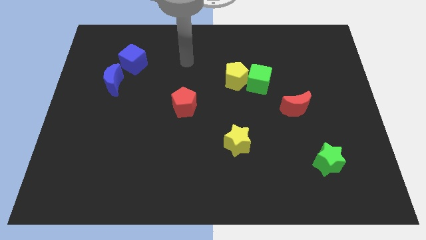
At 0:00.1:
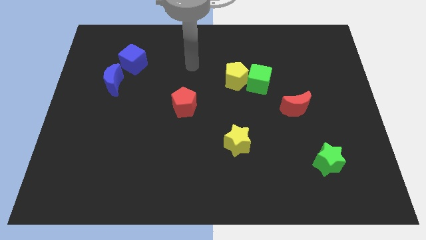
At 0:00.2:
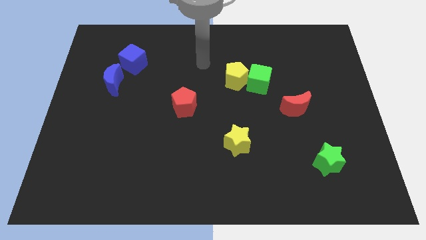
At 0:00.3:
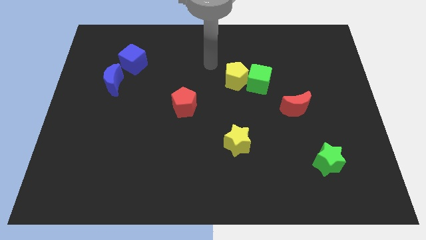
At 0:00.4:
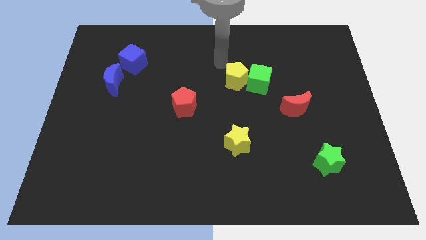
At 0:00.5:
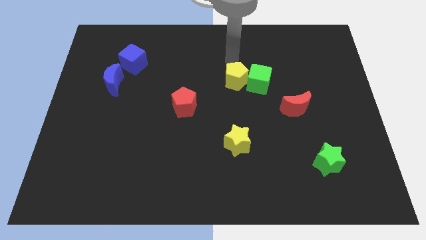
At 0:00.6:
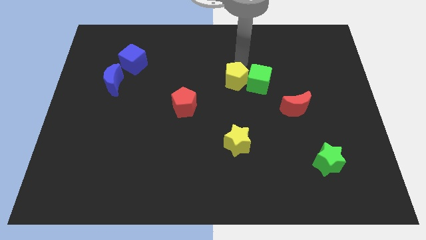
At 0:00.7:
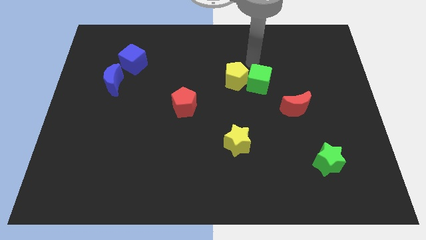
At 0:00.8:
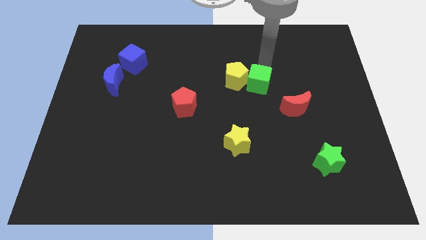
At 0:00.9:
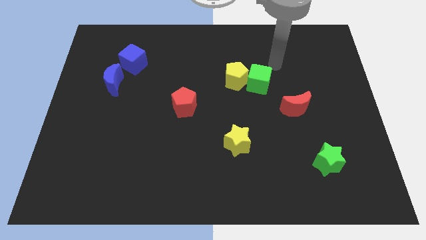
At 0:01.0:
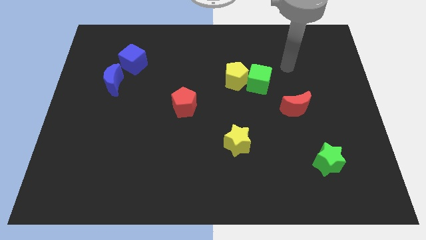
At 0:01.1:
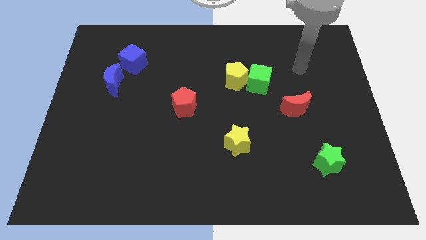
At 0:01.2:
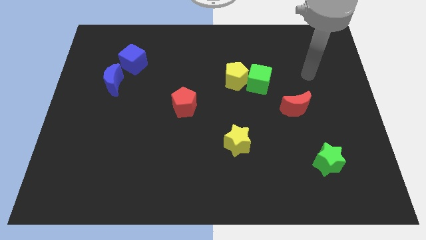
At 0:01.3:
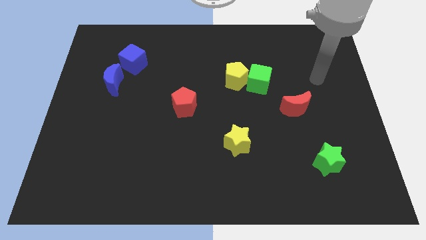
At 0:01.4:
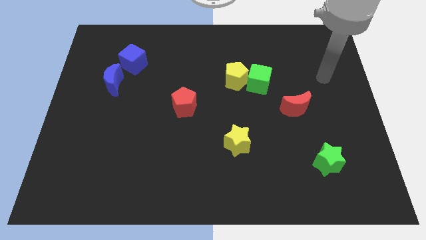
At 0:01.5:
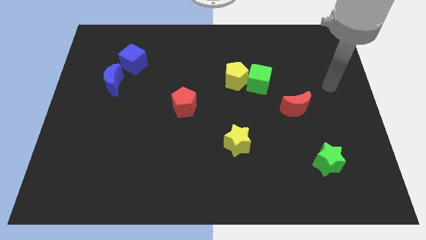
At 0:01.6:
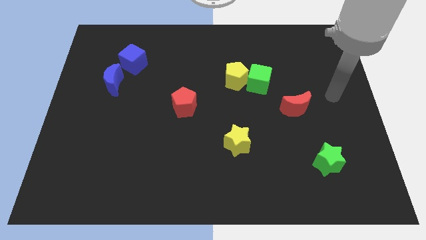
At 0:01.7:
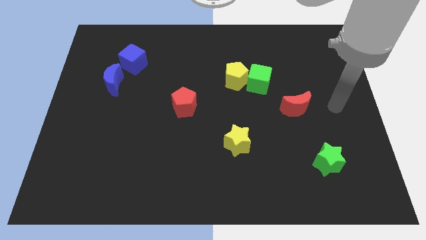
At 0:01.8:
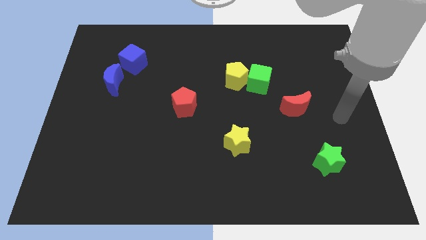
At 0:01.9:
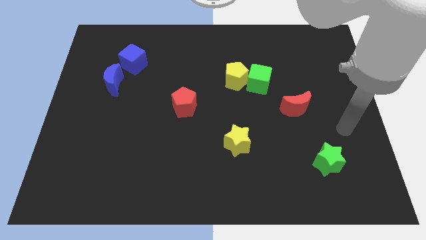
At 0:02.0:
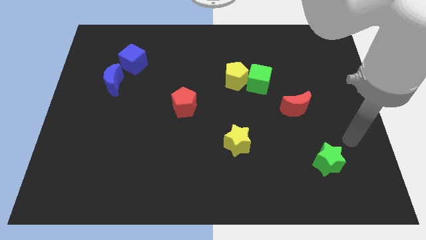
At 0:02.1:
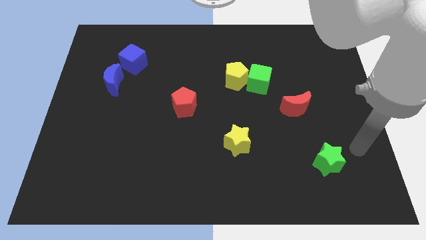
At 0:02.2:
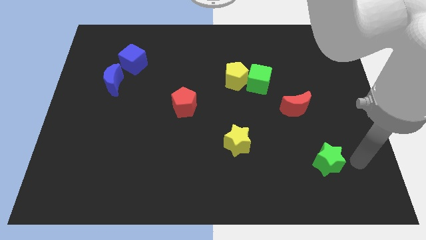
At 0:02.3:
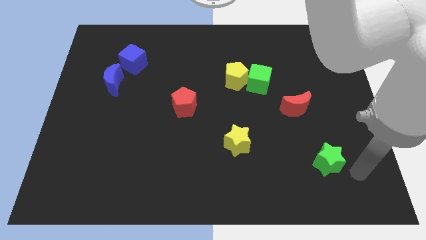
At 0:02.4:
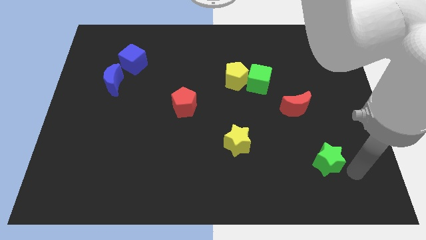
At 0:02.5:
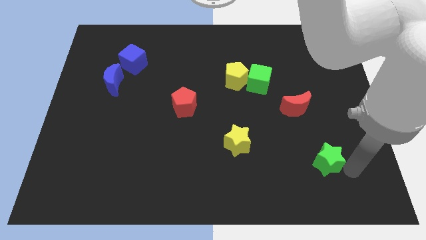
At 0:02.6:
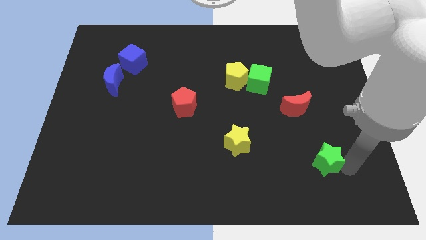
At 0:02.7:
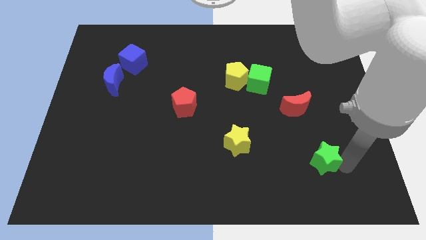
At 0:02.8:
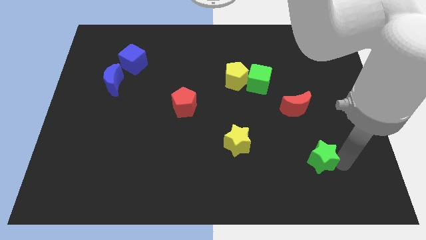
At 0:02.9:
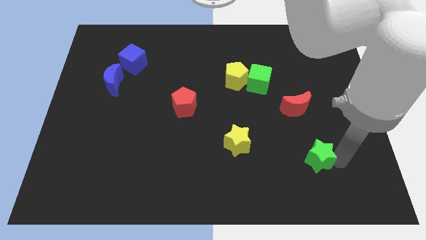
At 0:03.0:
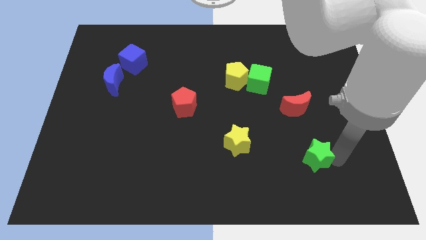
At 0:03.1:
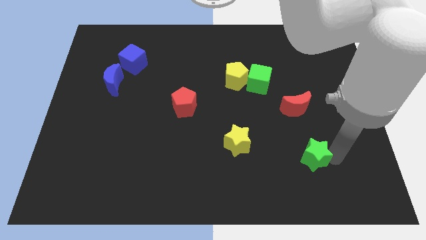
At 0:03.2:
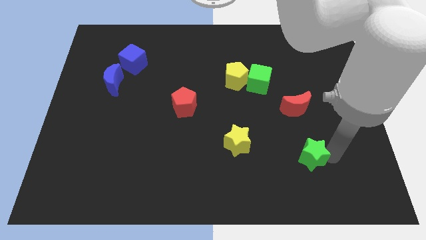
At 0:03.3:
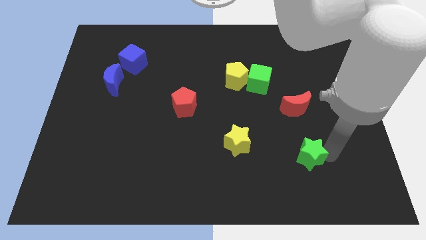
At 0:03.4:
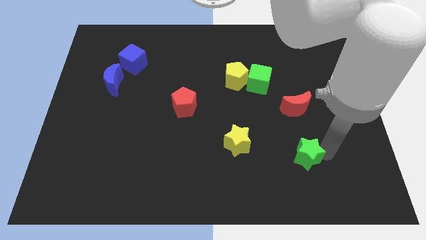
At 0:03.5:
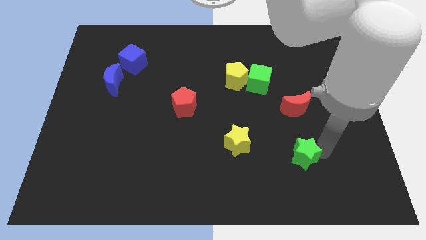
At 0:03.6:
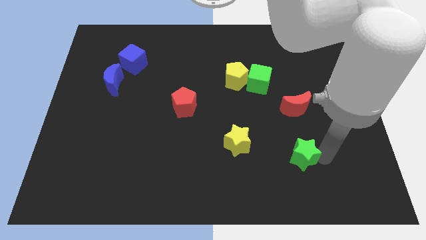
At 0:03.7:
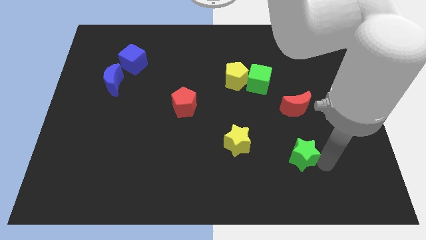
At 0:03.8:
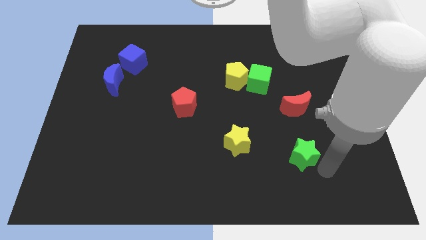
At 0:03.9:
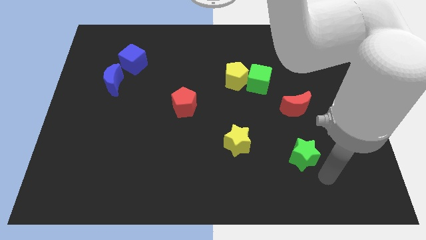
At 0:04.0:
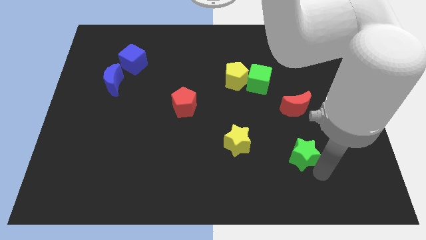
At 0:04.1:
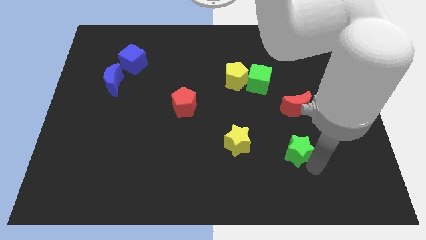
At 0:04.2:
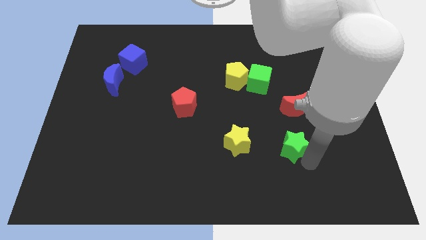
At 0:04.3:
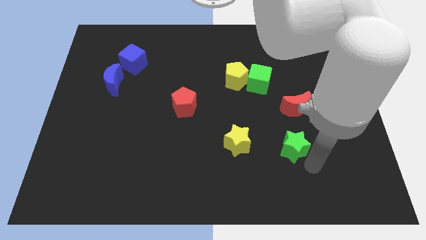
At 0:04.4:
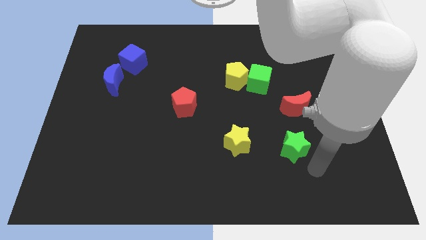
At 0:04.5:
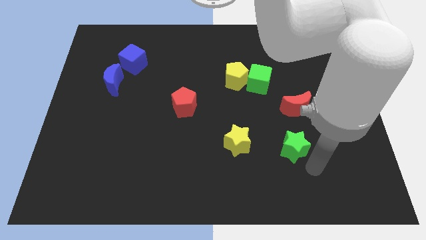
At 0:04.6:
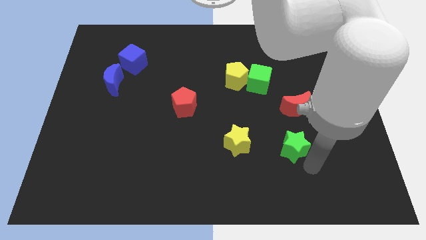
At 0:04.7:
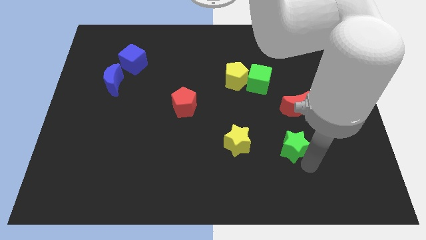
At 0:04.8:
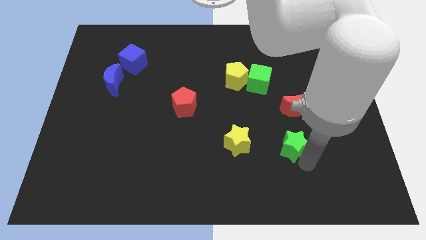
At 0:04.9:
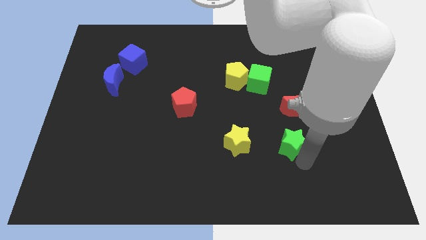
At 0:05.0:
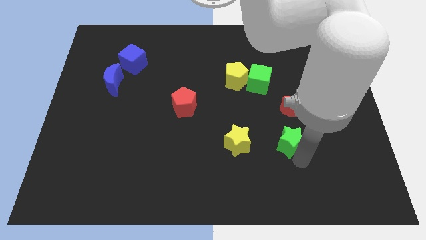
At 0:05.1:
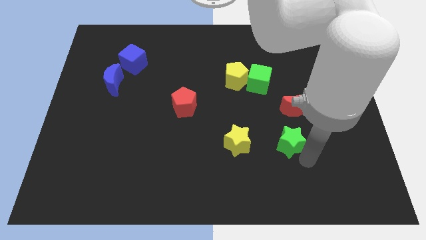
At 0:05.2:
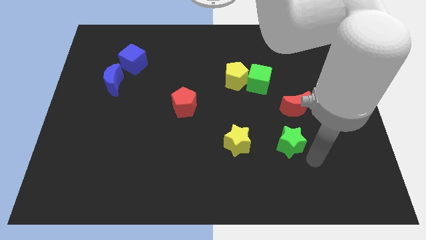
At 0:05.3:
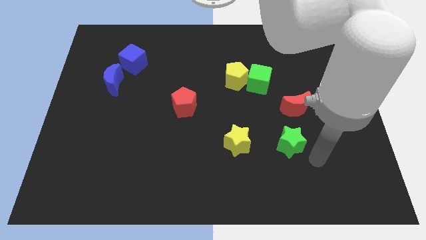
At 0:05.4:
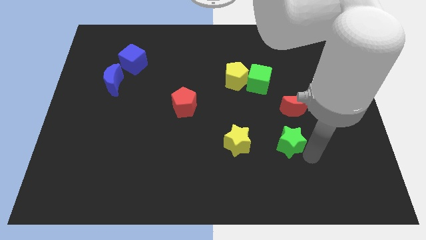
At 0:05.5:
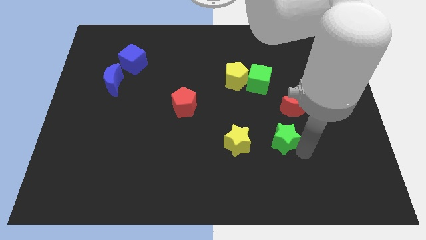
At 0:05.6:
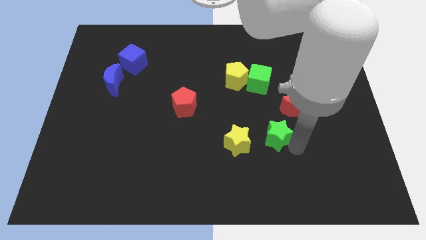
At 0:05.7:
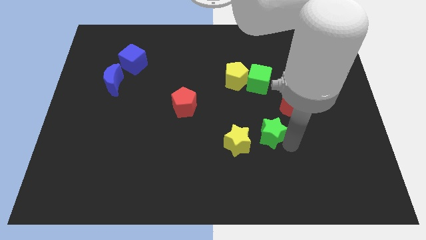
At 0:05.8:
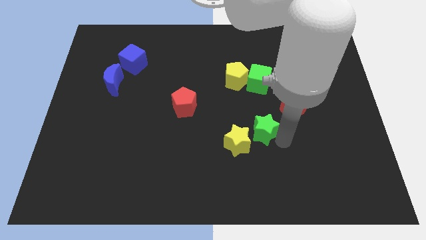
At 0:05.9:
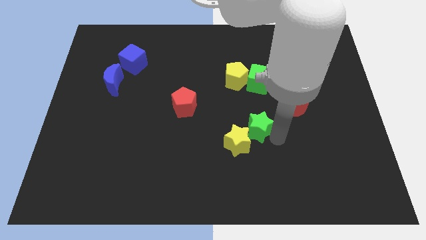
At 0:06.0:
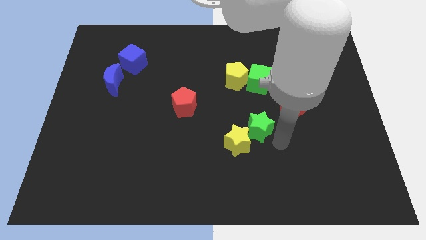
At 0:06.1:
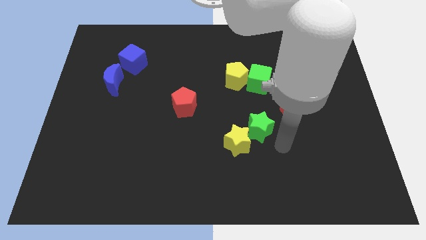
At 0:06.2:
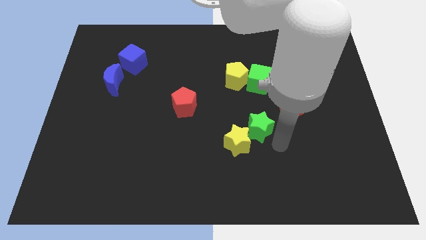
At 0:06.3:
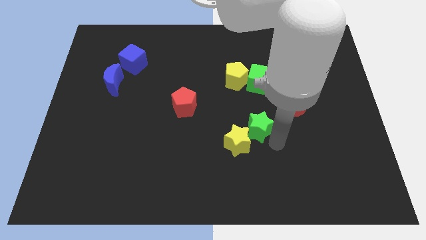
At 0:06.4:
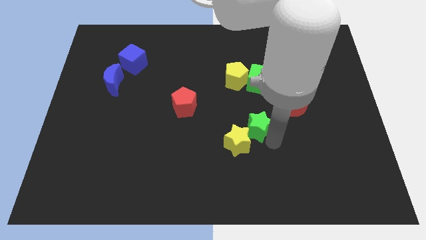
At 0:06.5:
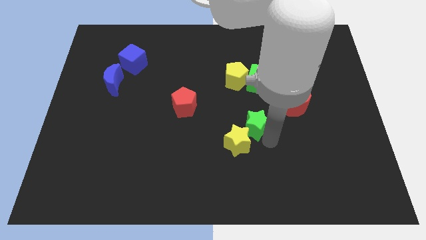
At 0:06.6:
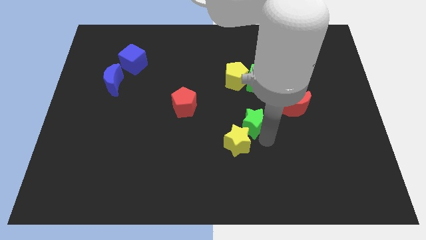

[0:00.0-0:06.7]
slide the green star below the yellow pentagon
